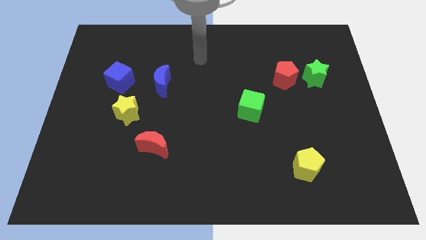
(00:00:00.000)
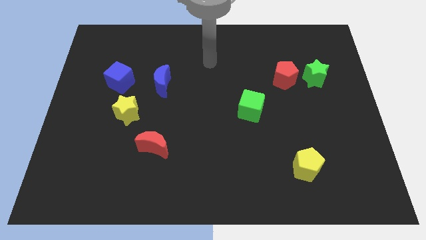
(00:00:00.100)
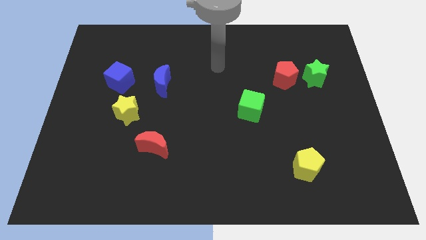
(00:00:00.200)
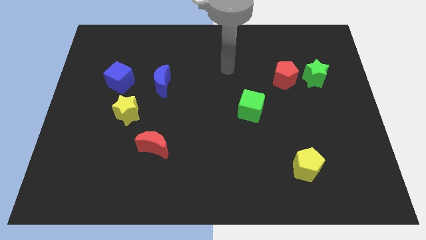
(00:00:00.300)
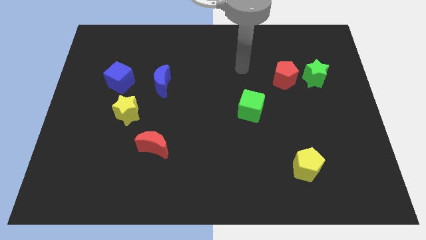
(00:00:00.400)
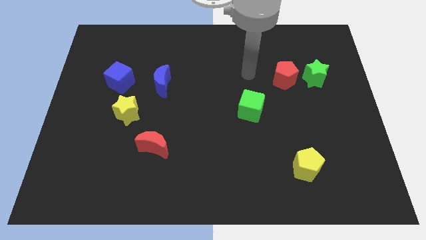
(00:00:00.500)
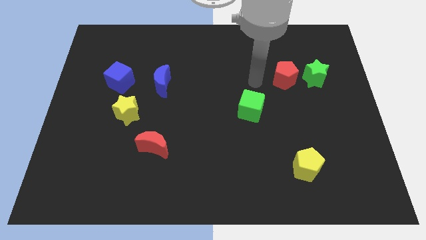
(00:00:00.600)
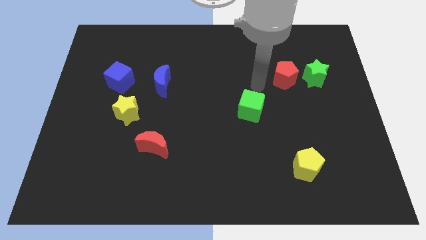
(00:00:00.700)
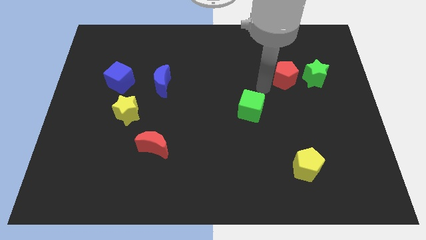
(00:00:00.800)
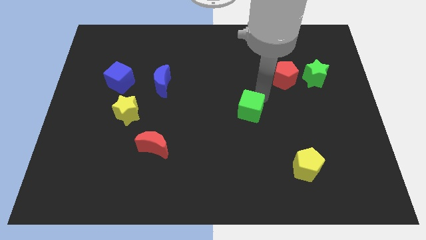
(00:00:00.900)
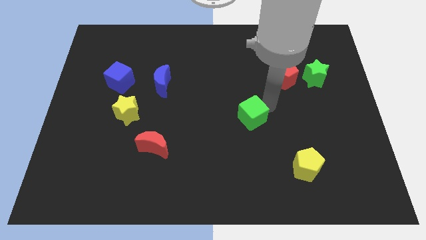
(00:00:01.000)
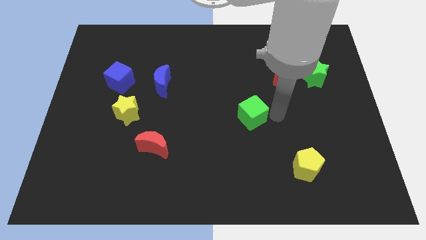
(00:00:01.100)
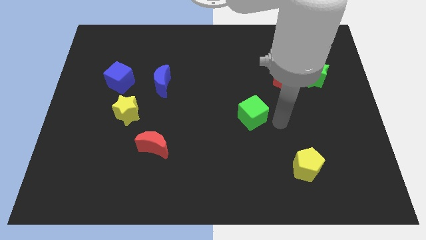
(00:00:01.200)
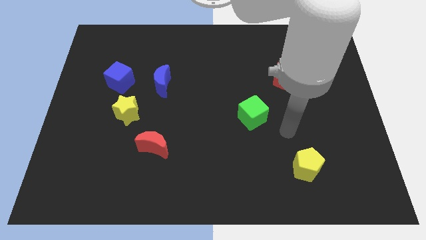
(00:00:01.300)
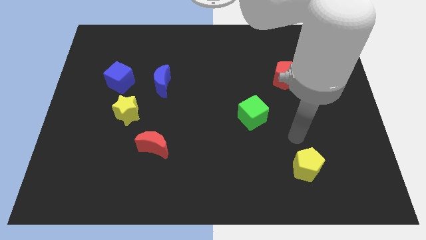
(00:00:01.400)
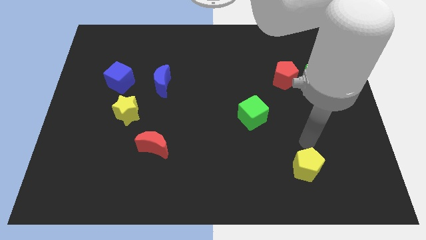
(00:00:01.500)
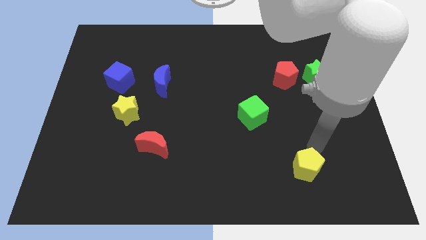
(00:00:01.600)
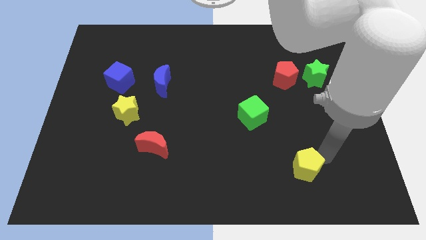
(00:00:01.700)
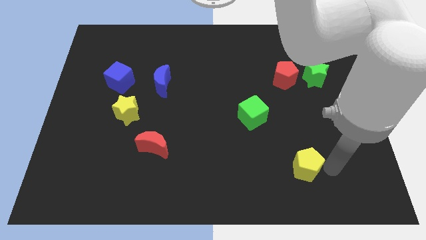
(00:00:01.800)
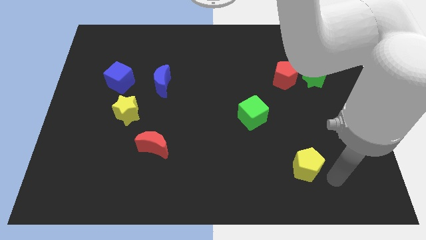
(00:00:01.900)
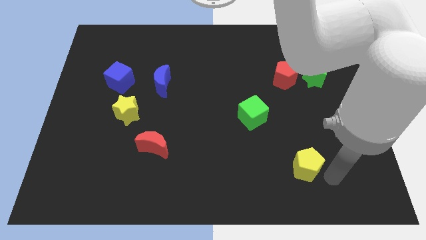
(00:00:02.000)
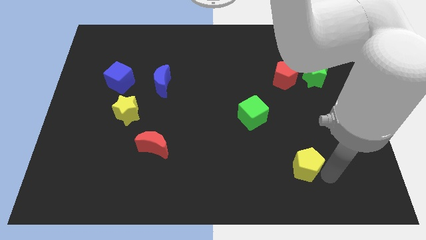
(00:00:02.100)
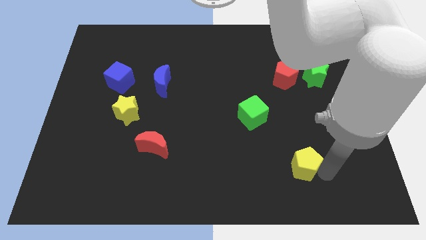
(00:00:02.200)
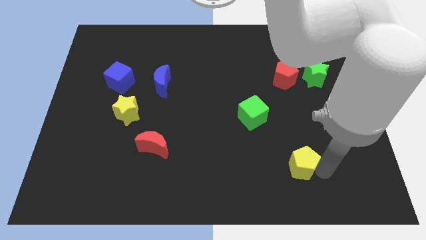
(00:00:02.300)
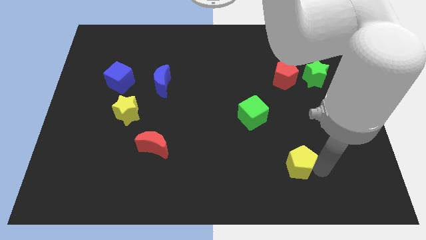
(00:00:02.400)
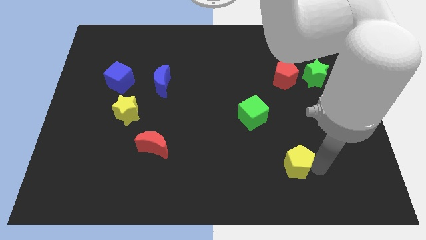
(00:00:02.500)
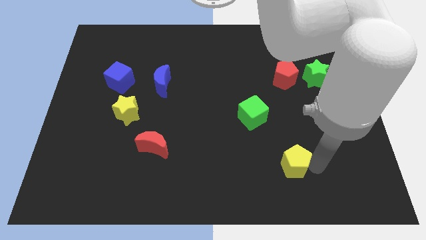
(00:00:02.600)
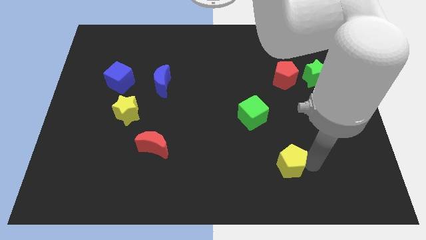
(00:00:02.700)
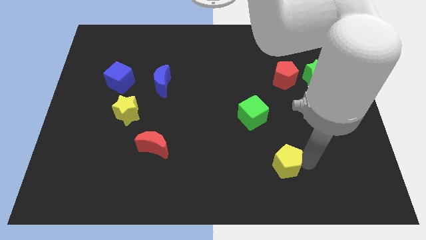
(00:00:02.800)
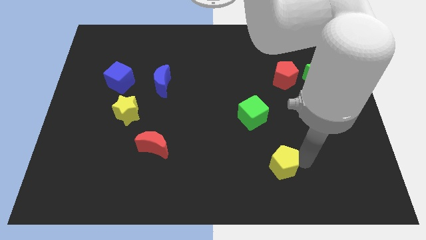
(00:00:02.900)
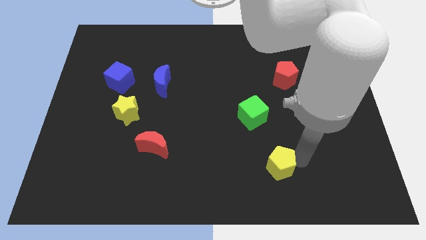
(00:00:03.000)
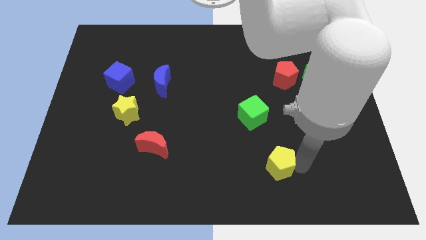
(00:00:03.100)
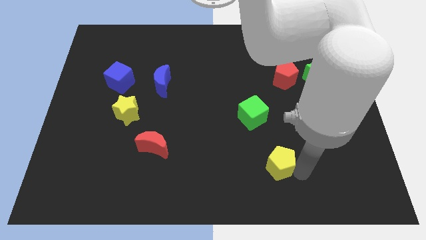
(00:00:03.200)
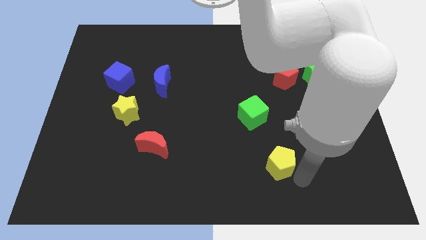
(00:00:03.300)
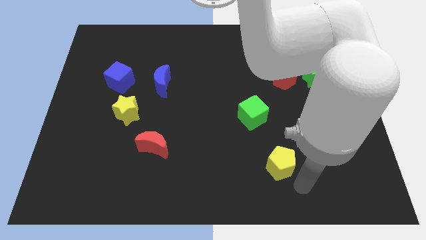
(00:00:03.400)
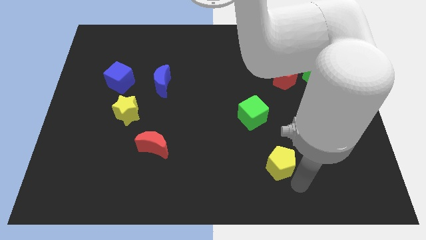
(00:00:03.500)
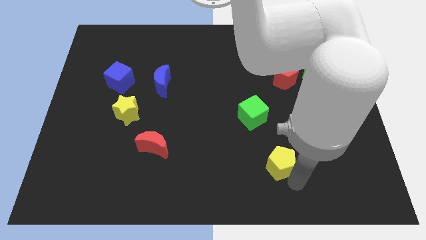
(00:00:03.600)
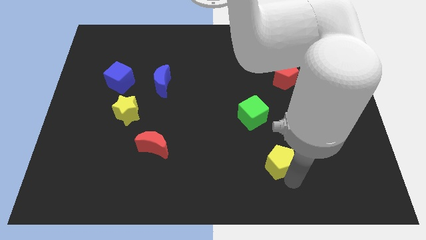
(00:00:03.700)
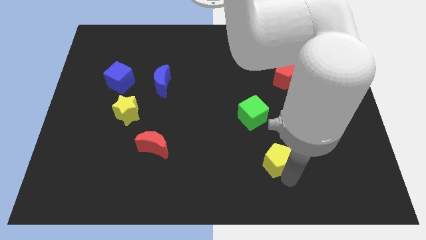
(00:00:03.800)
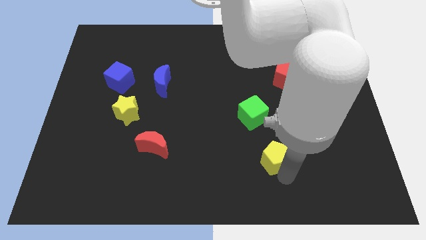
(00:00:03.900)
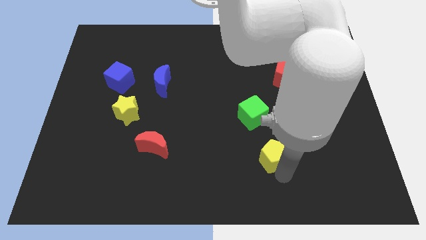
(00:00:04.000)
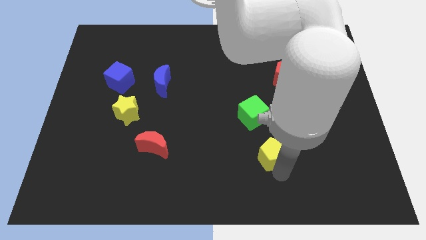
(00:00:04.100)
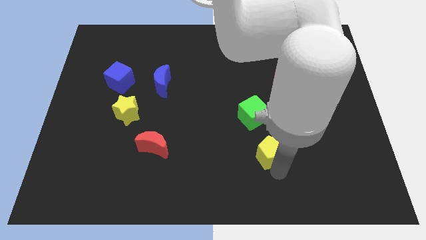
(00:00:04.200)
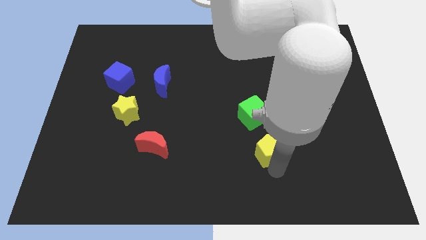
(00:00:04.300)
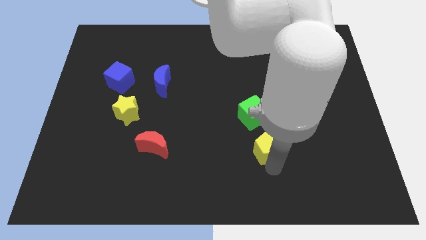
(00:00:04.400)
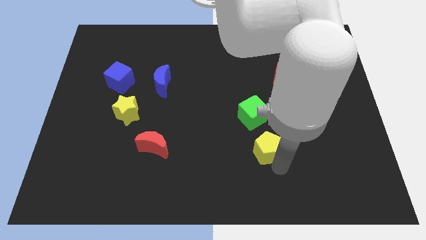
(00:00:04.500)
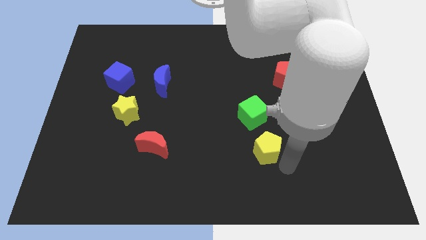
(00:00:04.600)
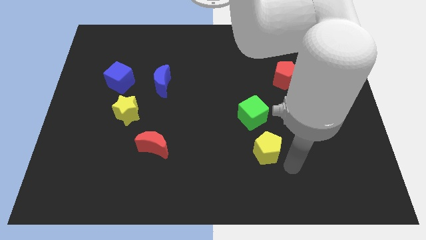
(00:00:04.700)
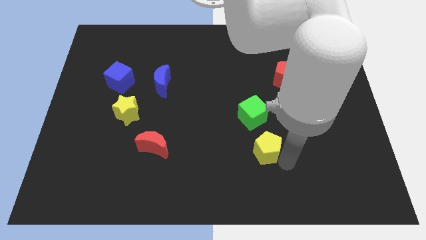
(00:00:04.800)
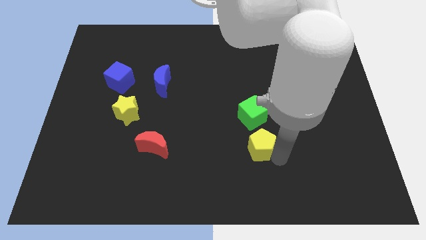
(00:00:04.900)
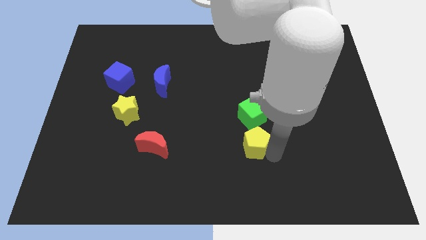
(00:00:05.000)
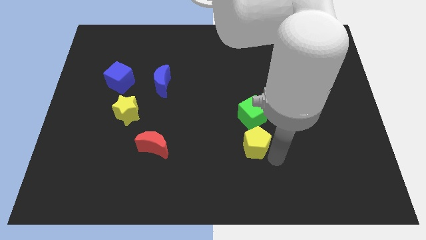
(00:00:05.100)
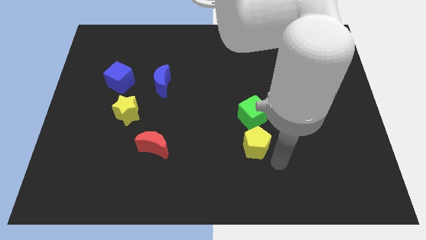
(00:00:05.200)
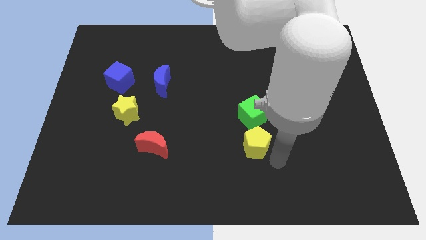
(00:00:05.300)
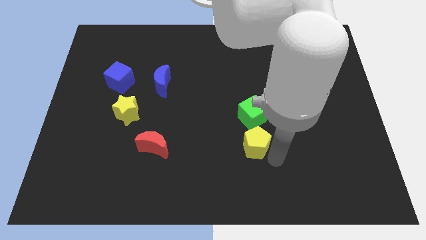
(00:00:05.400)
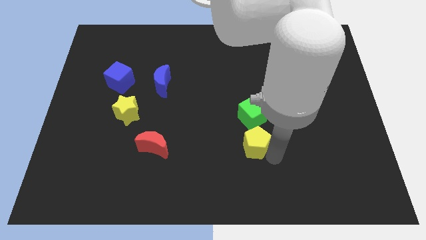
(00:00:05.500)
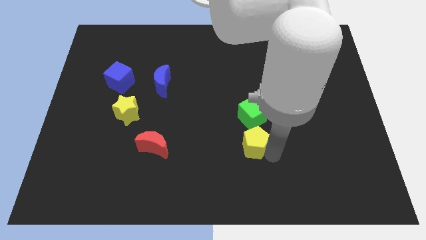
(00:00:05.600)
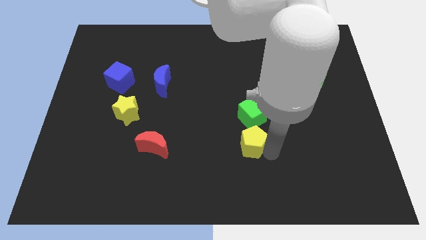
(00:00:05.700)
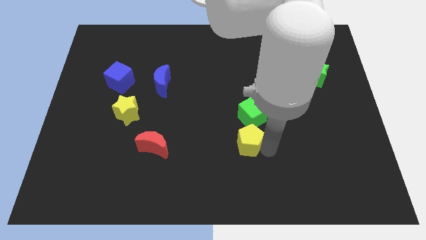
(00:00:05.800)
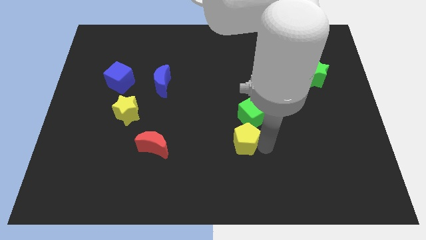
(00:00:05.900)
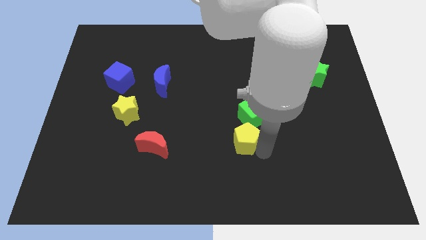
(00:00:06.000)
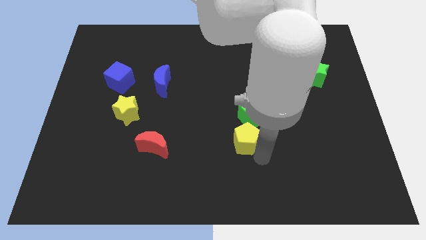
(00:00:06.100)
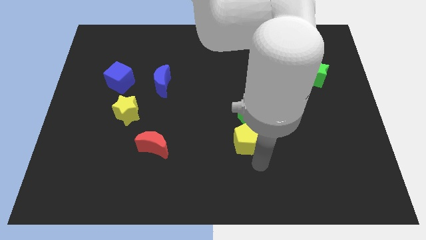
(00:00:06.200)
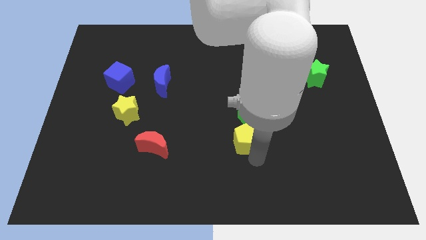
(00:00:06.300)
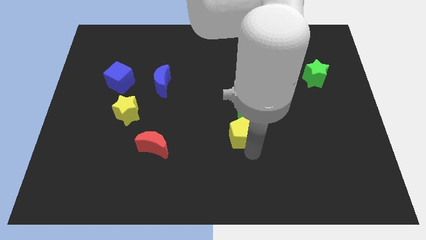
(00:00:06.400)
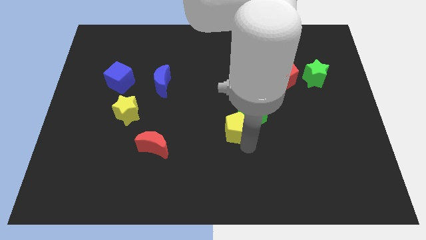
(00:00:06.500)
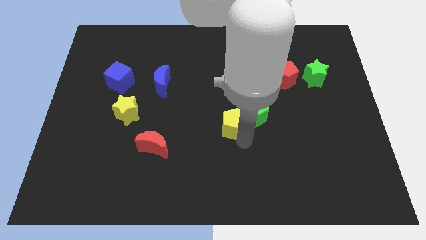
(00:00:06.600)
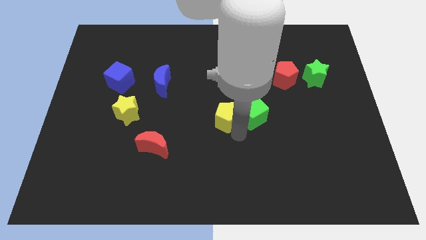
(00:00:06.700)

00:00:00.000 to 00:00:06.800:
slide the yellow pentagon upwards and left

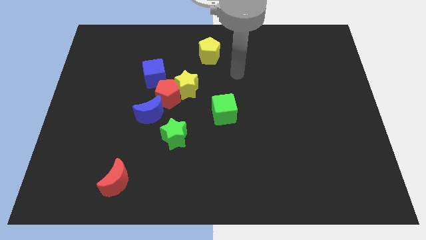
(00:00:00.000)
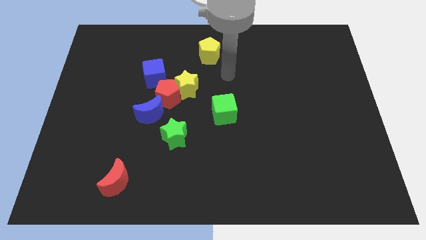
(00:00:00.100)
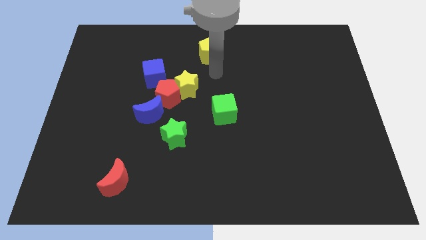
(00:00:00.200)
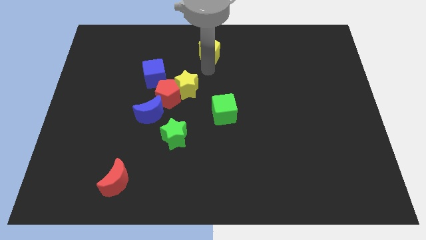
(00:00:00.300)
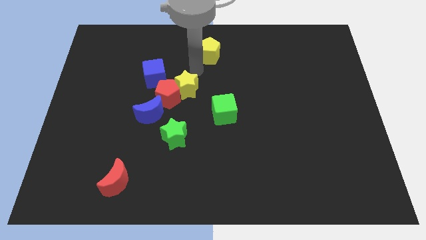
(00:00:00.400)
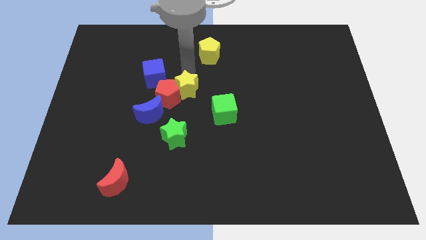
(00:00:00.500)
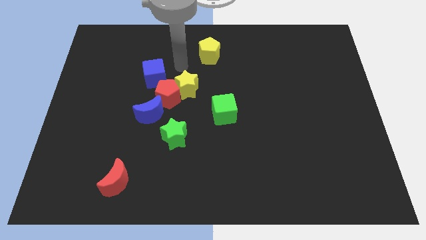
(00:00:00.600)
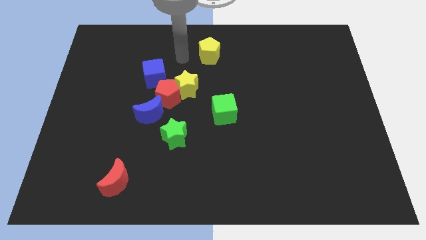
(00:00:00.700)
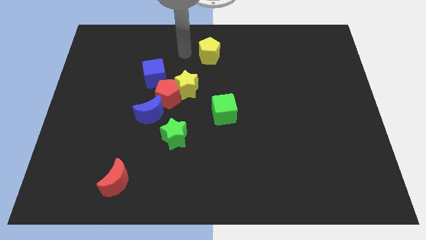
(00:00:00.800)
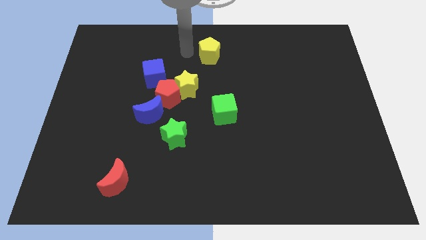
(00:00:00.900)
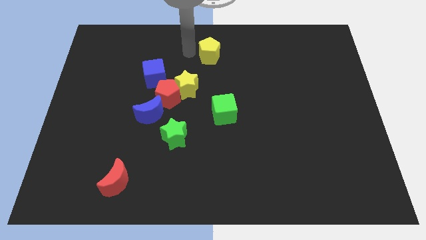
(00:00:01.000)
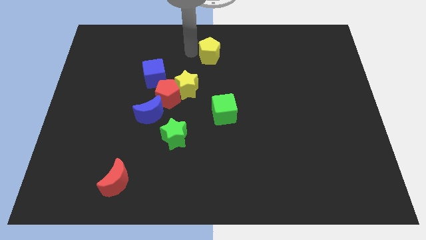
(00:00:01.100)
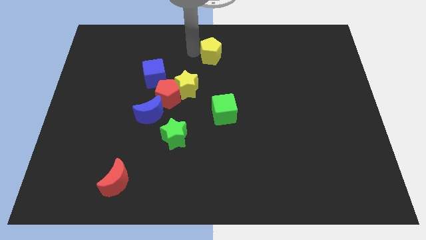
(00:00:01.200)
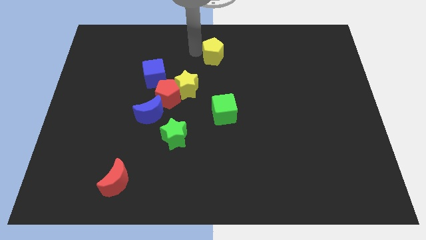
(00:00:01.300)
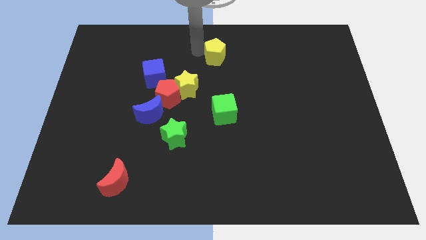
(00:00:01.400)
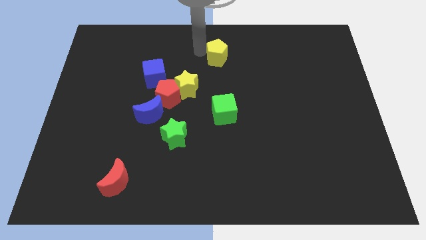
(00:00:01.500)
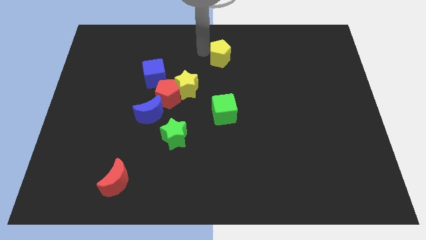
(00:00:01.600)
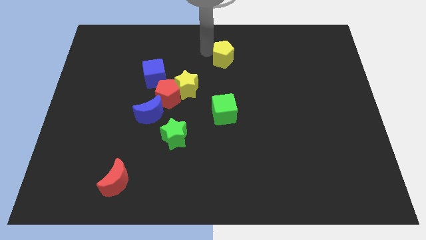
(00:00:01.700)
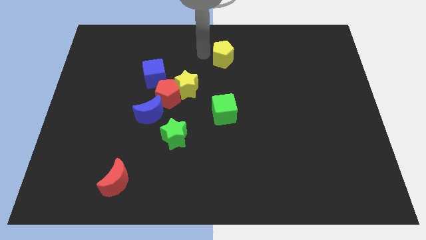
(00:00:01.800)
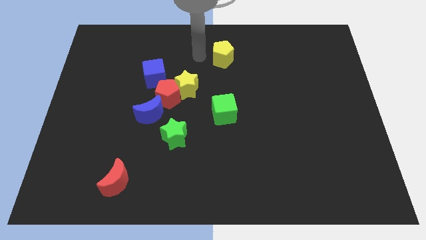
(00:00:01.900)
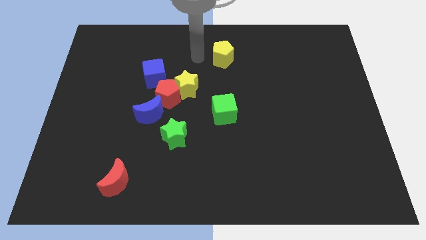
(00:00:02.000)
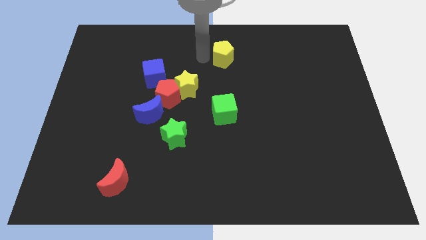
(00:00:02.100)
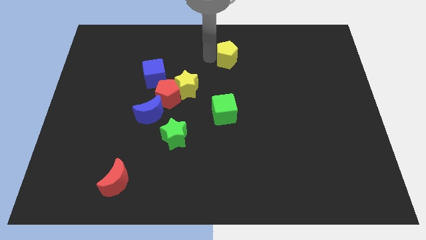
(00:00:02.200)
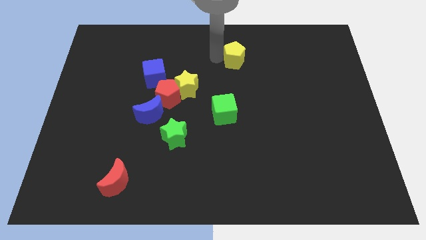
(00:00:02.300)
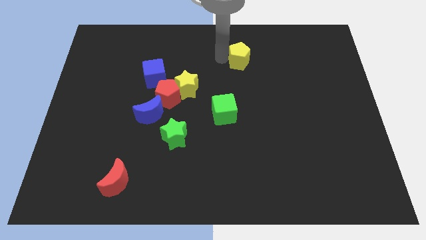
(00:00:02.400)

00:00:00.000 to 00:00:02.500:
move the yellow pentagon to the right a little
